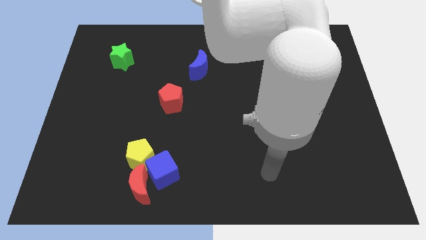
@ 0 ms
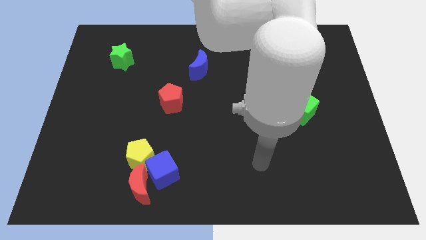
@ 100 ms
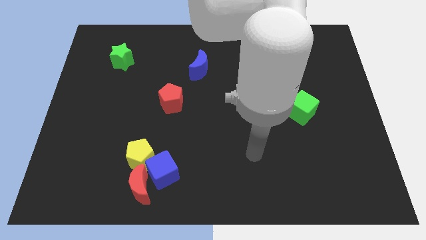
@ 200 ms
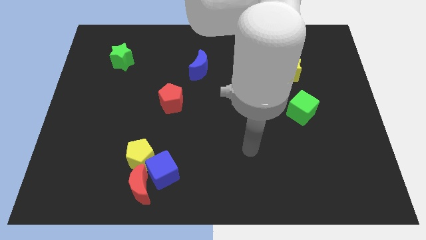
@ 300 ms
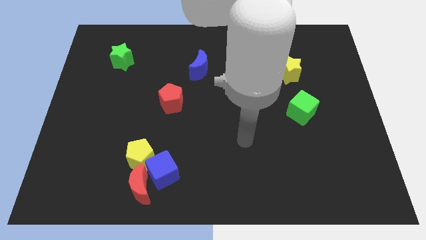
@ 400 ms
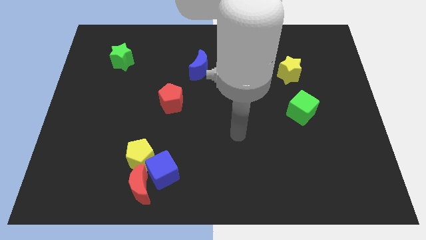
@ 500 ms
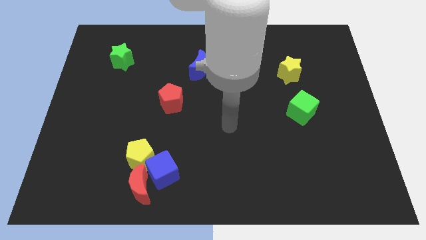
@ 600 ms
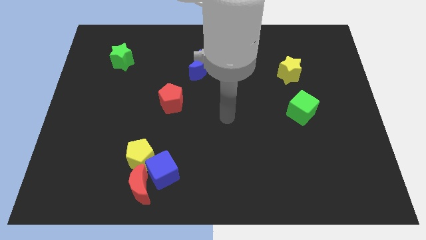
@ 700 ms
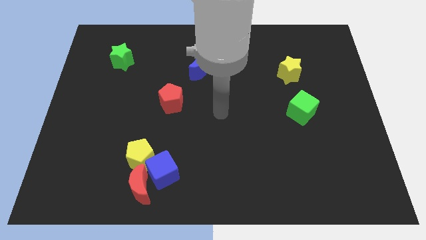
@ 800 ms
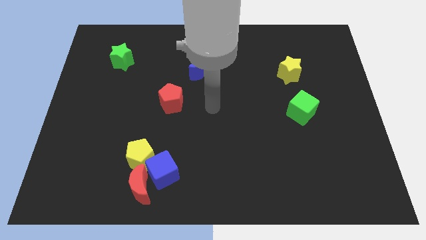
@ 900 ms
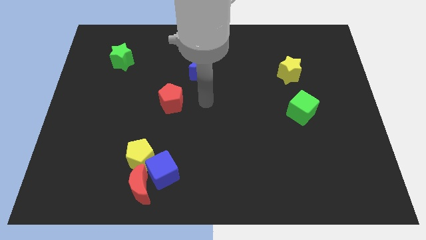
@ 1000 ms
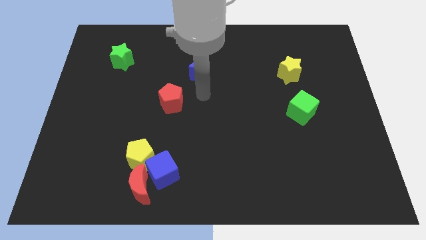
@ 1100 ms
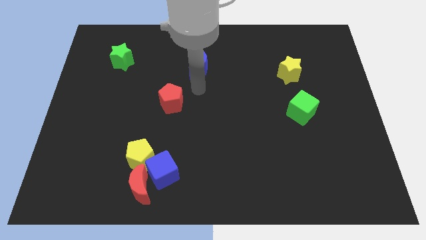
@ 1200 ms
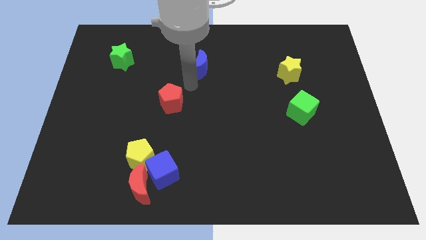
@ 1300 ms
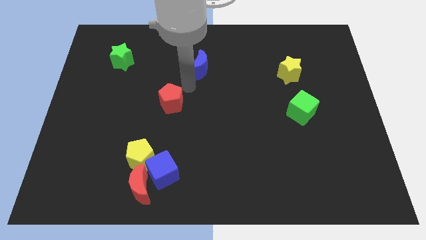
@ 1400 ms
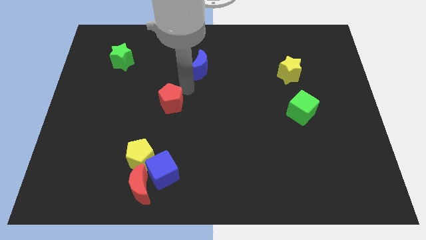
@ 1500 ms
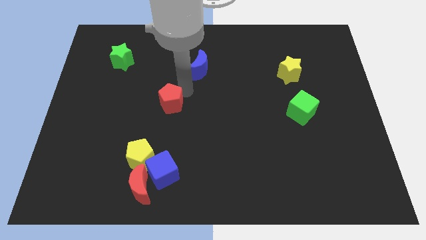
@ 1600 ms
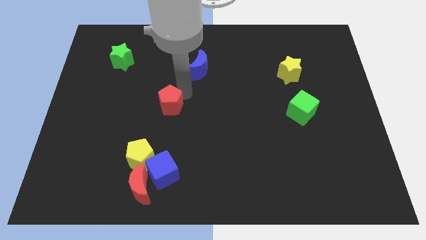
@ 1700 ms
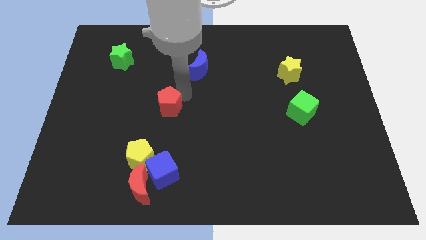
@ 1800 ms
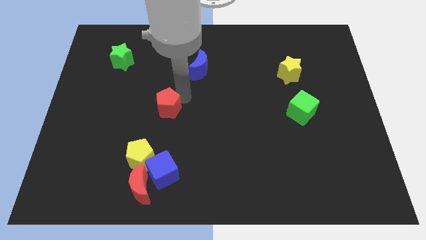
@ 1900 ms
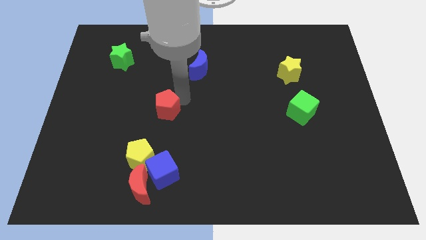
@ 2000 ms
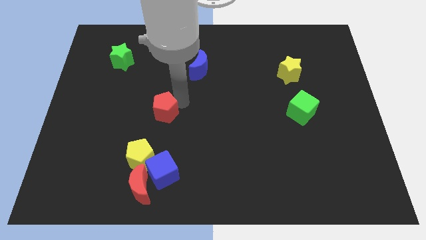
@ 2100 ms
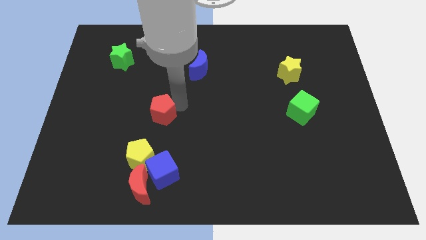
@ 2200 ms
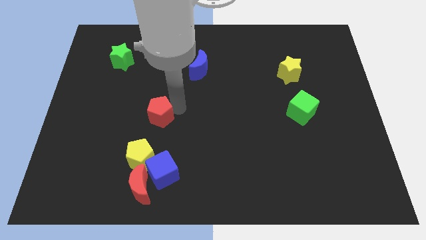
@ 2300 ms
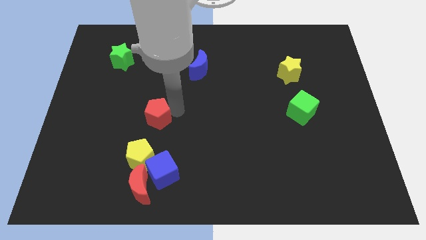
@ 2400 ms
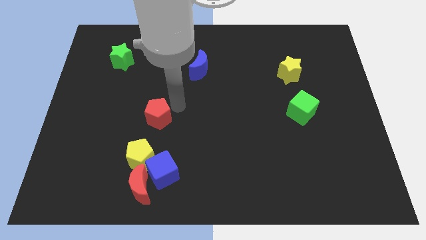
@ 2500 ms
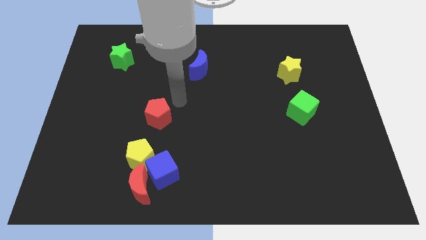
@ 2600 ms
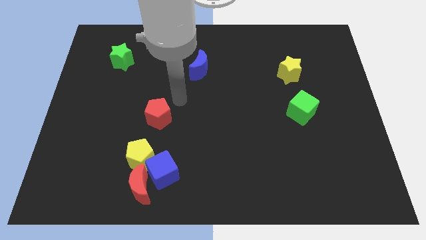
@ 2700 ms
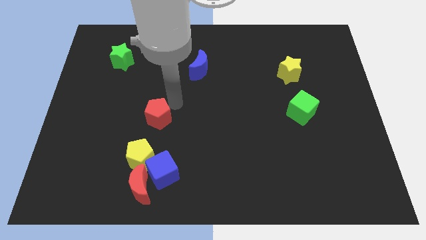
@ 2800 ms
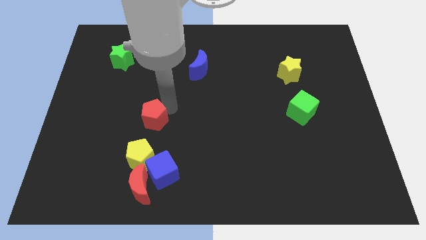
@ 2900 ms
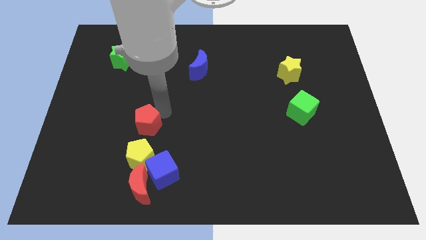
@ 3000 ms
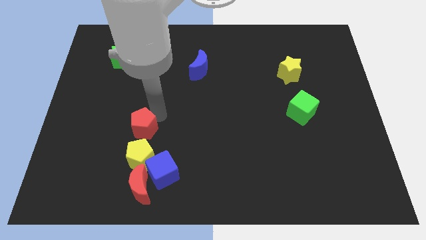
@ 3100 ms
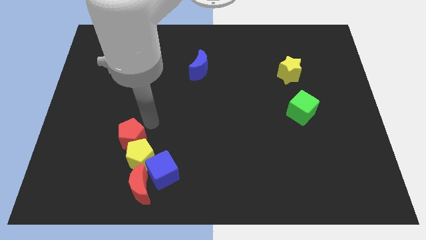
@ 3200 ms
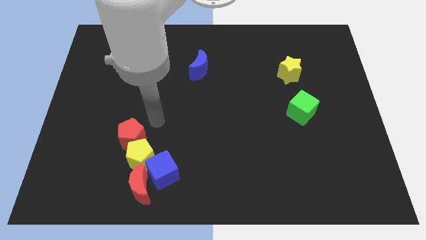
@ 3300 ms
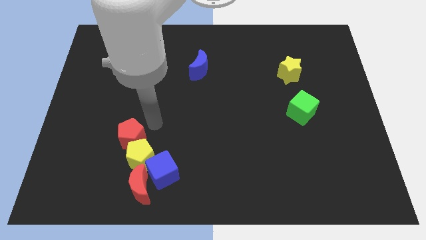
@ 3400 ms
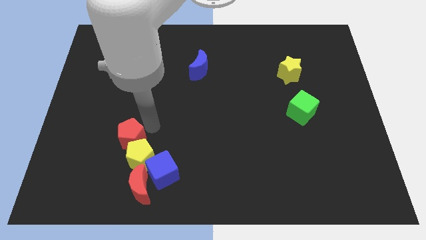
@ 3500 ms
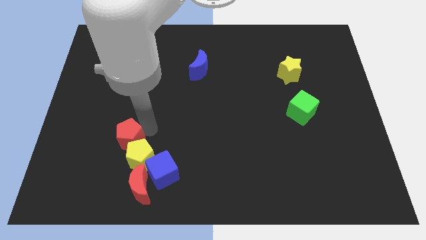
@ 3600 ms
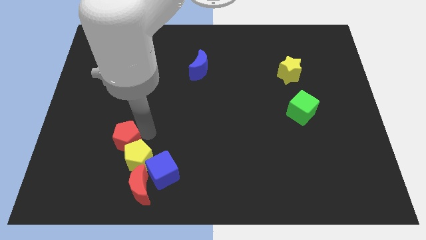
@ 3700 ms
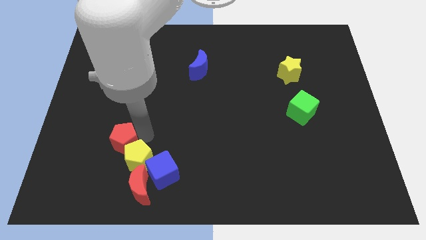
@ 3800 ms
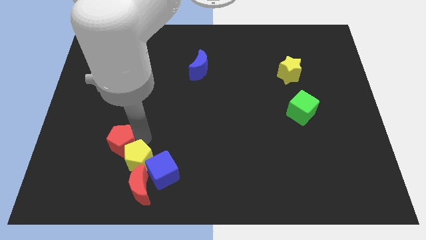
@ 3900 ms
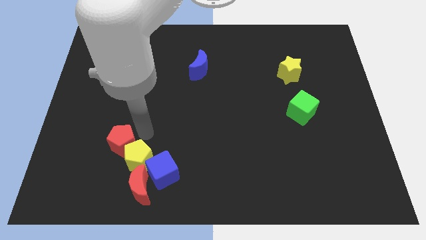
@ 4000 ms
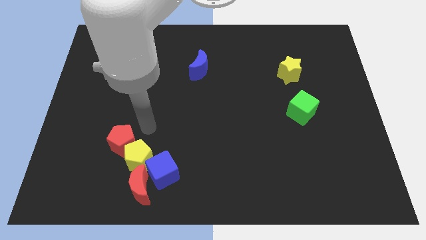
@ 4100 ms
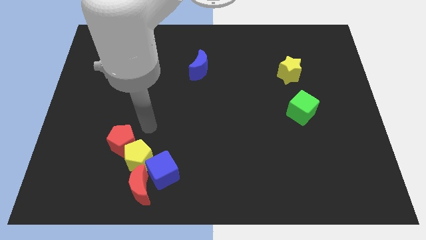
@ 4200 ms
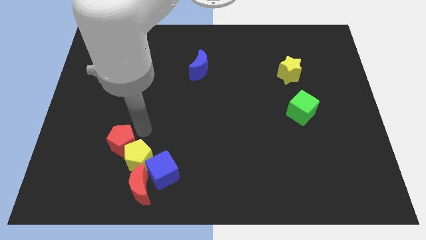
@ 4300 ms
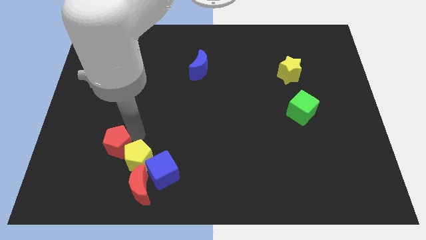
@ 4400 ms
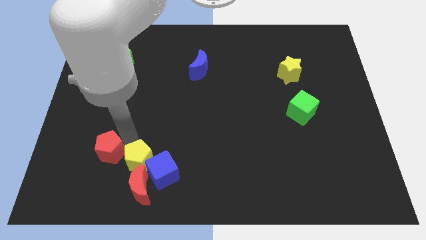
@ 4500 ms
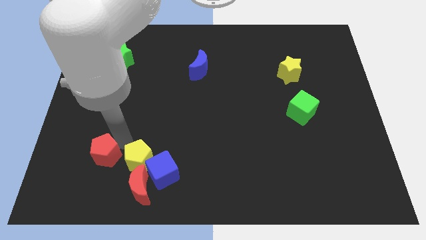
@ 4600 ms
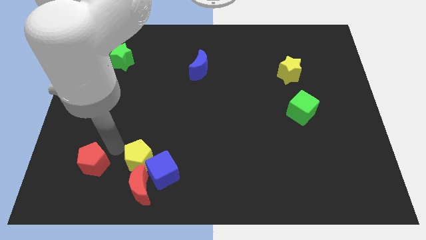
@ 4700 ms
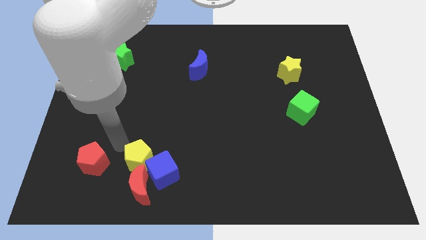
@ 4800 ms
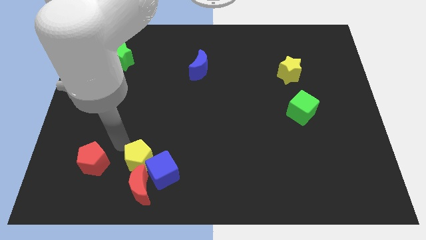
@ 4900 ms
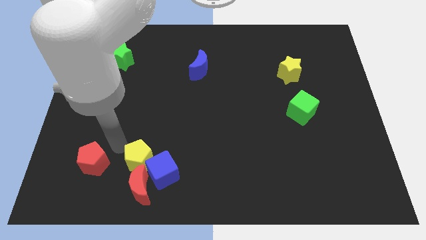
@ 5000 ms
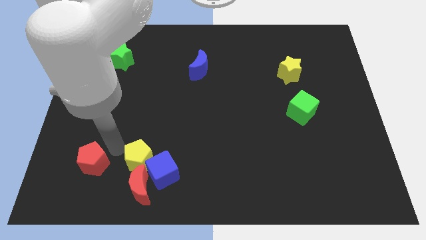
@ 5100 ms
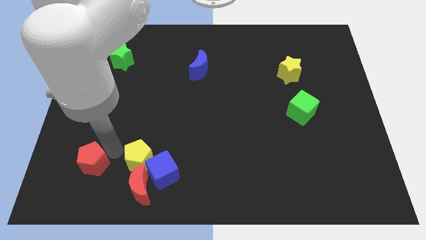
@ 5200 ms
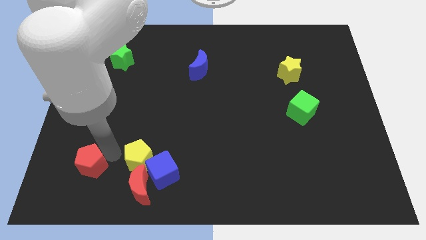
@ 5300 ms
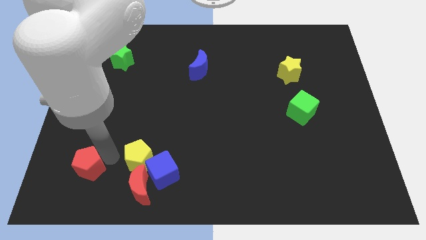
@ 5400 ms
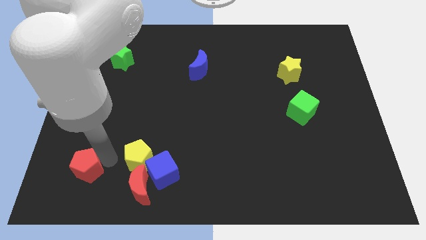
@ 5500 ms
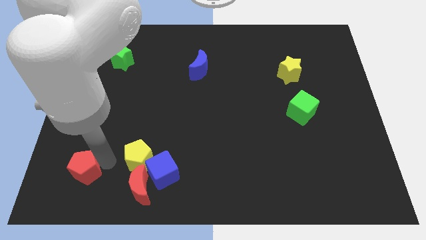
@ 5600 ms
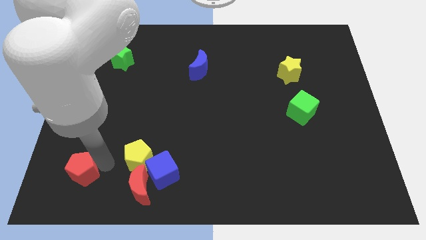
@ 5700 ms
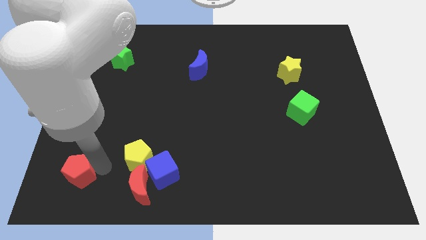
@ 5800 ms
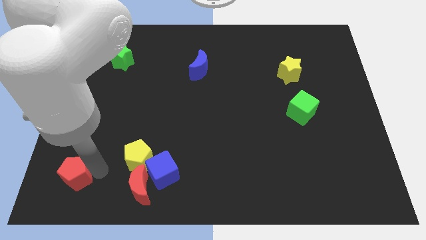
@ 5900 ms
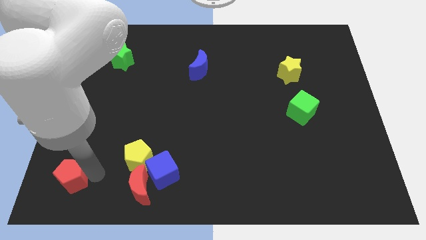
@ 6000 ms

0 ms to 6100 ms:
slide the red pentagon to the bottom left of the board

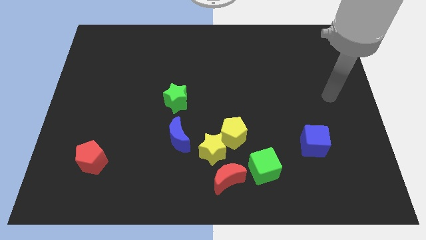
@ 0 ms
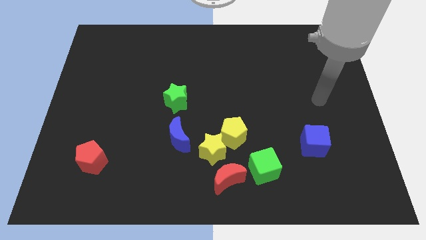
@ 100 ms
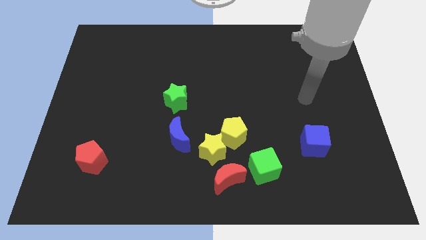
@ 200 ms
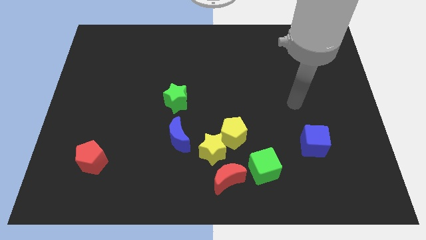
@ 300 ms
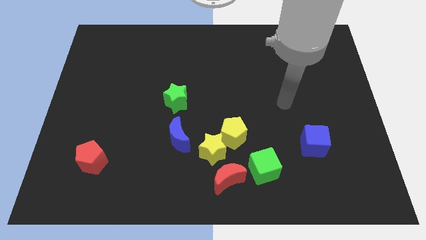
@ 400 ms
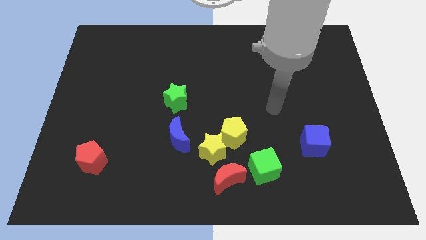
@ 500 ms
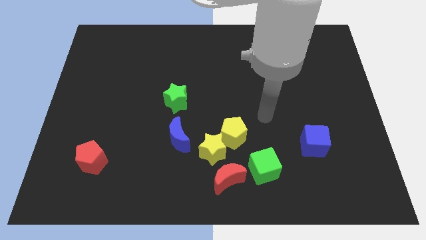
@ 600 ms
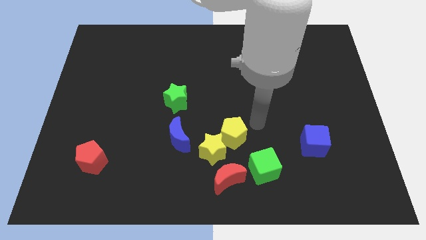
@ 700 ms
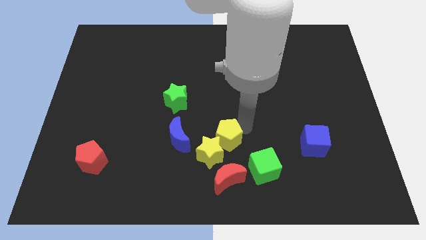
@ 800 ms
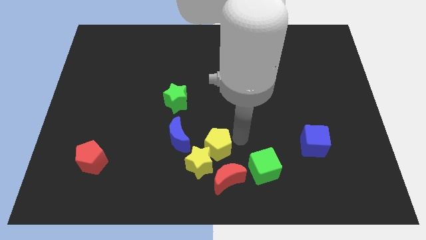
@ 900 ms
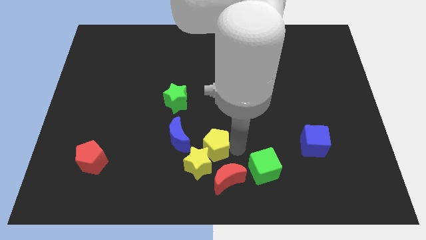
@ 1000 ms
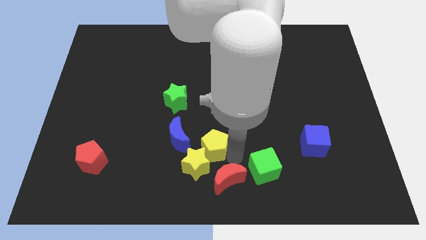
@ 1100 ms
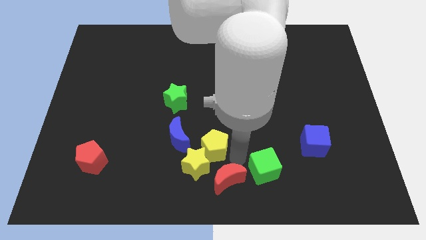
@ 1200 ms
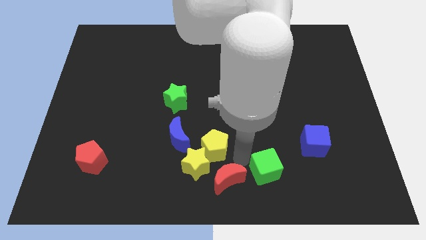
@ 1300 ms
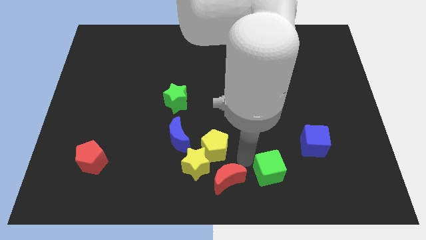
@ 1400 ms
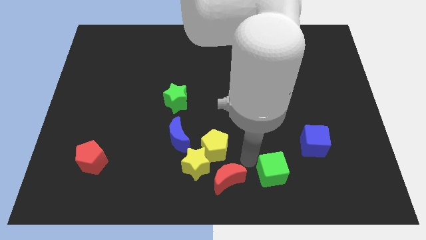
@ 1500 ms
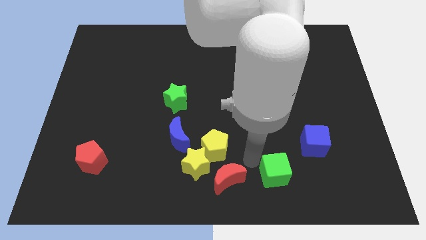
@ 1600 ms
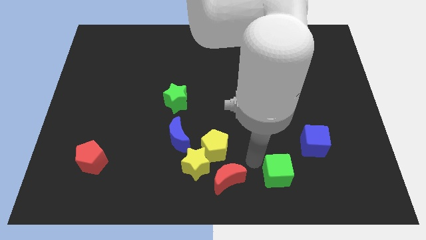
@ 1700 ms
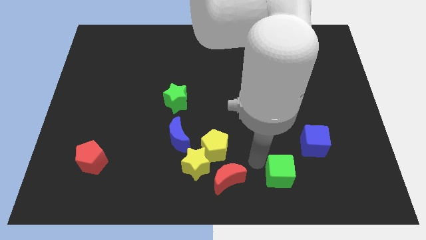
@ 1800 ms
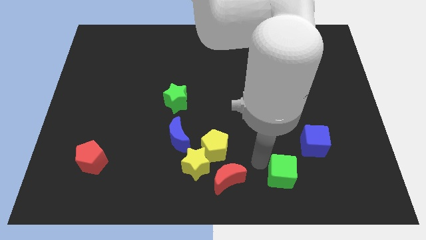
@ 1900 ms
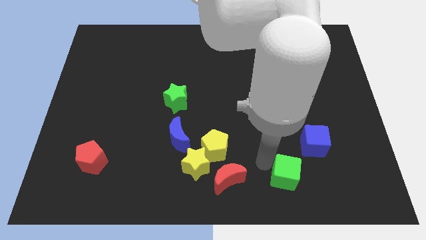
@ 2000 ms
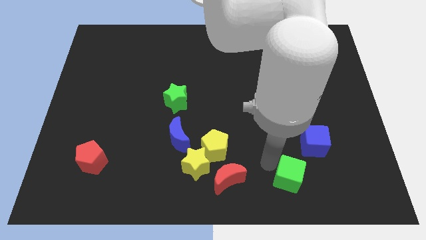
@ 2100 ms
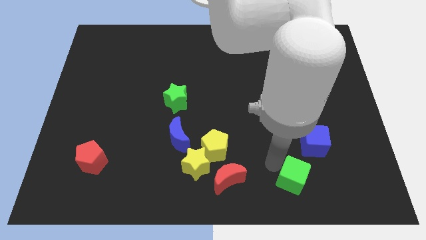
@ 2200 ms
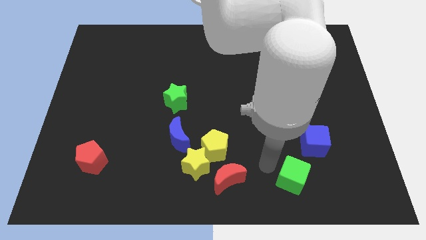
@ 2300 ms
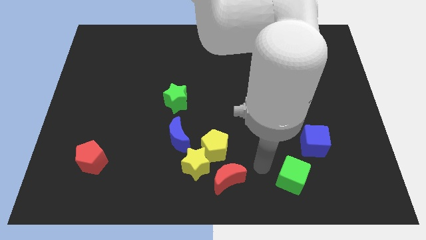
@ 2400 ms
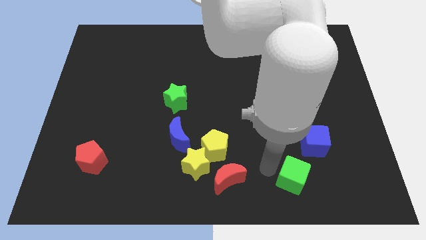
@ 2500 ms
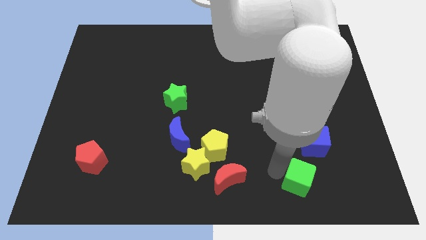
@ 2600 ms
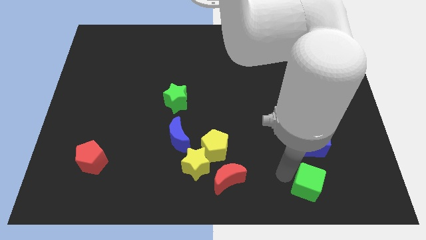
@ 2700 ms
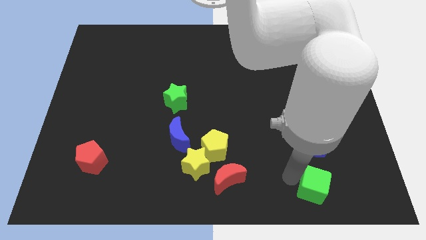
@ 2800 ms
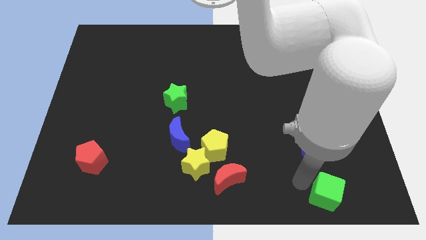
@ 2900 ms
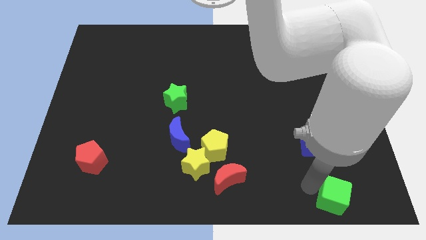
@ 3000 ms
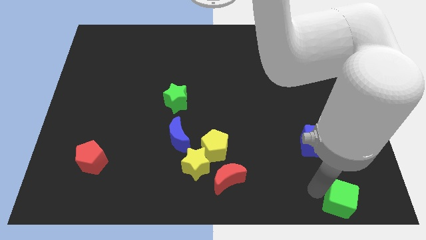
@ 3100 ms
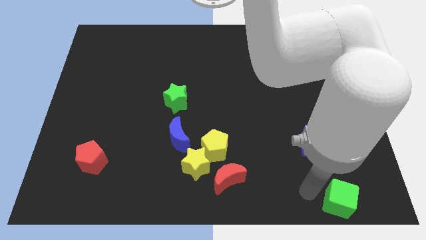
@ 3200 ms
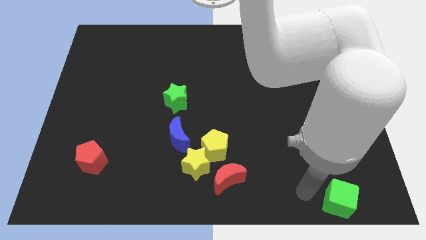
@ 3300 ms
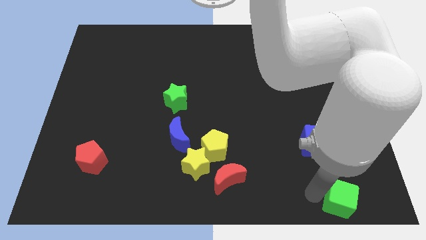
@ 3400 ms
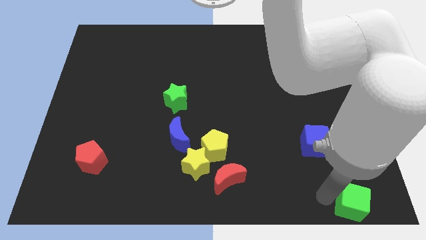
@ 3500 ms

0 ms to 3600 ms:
put the green cube to the bottom right corner
